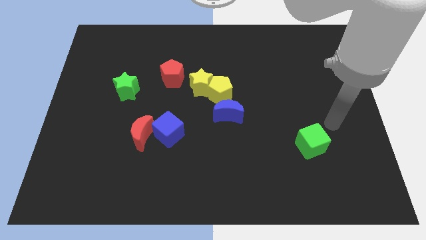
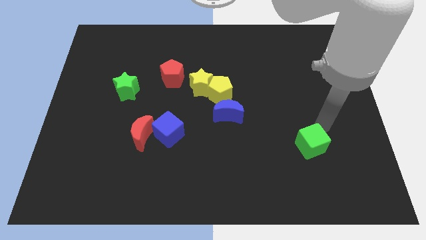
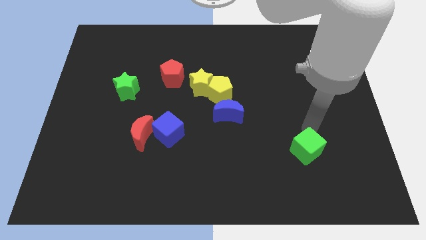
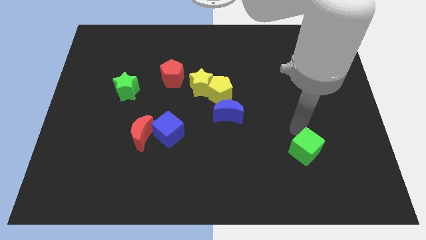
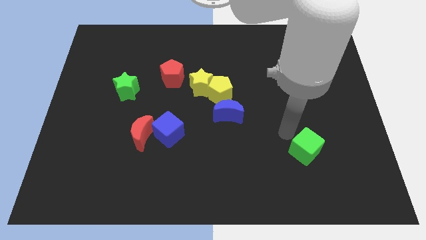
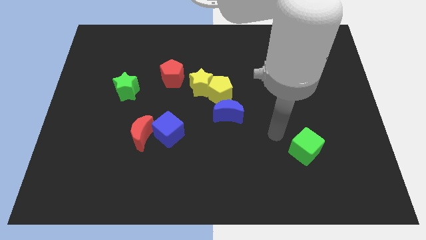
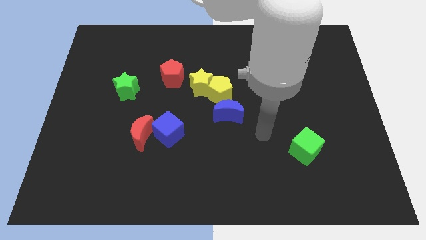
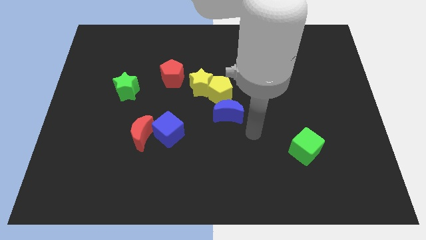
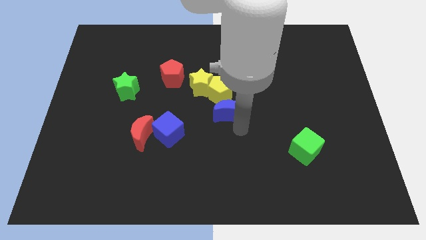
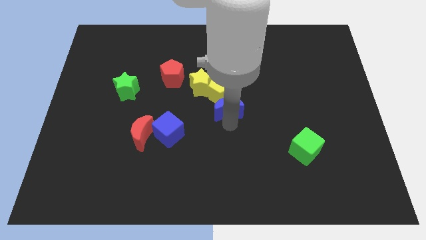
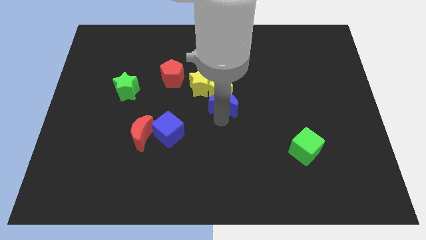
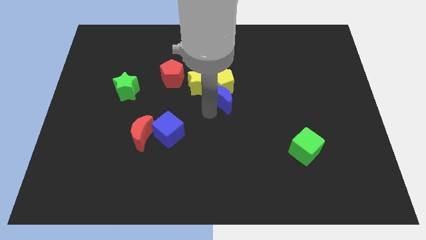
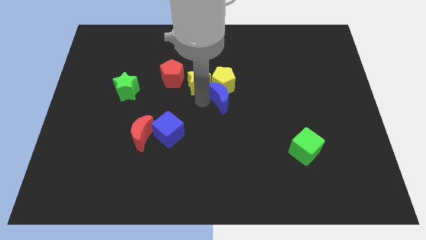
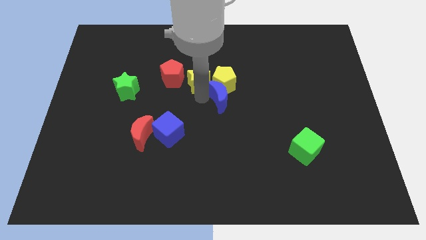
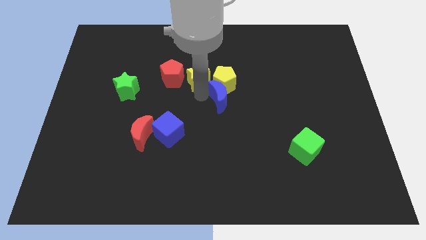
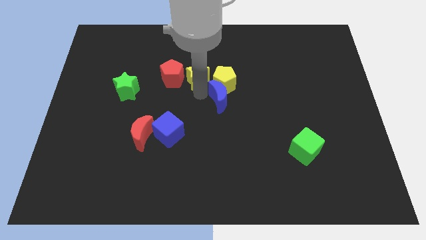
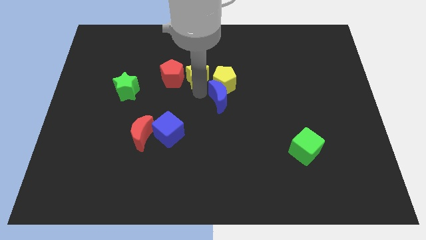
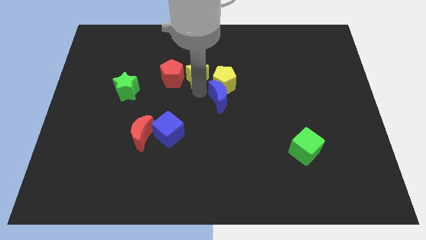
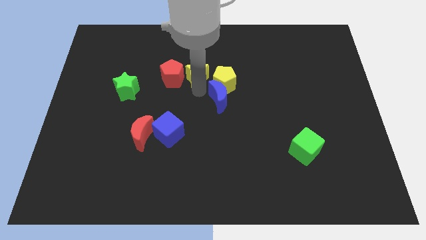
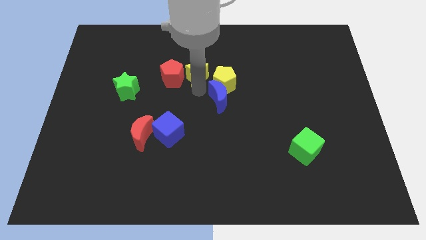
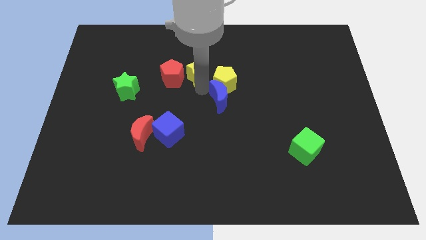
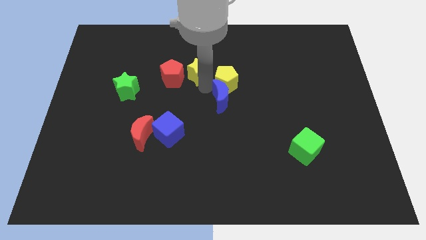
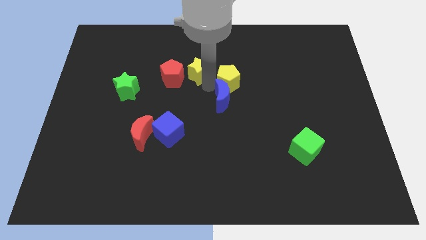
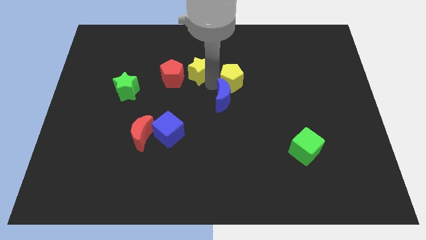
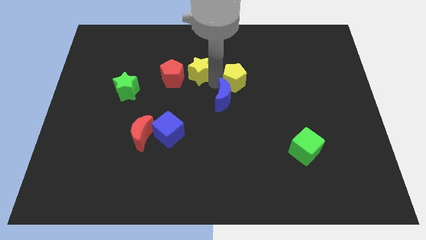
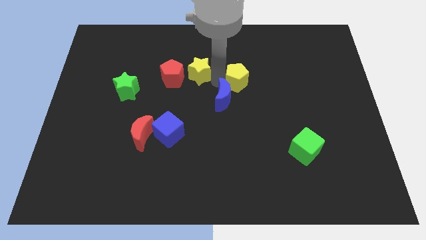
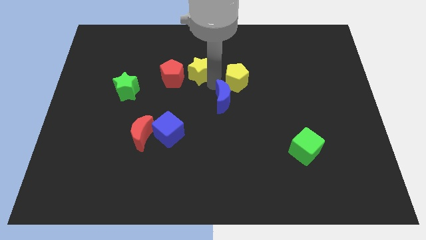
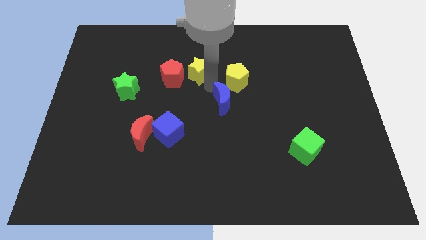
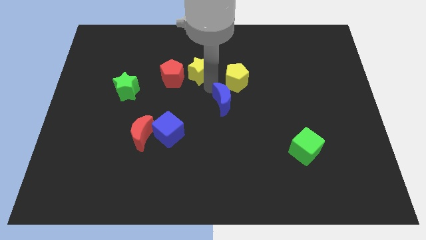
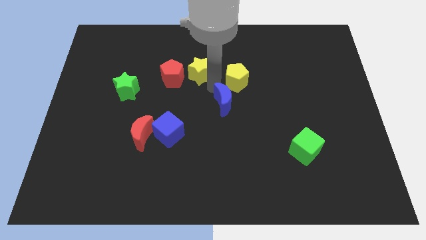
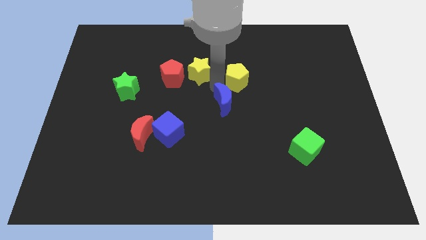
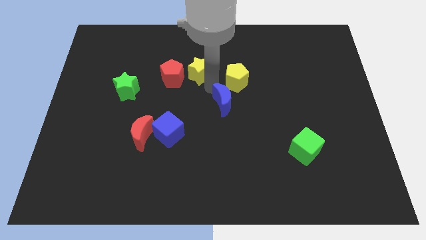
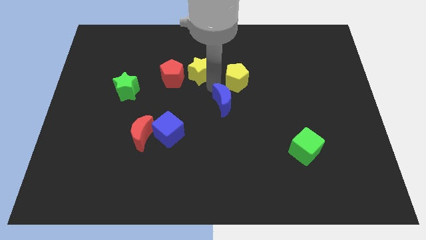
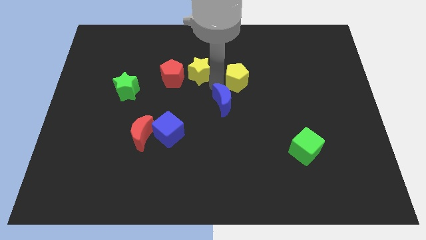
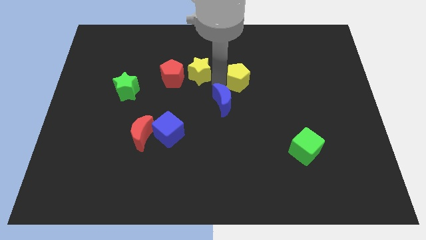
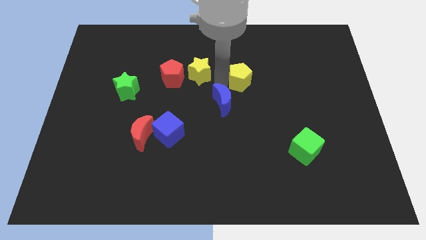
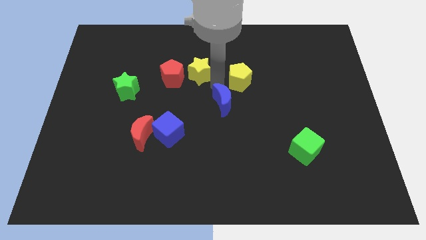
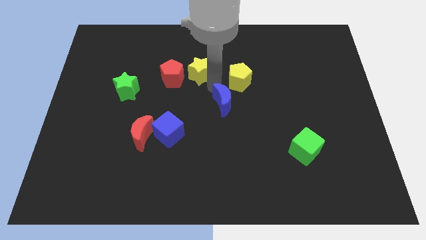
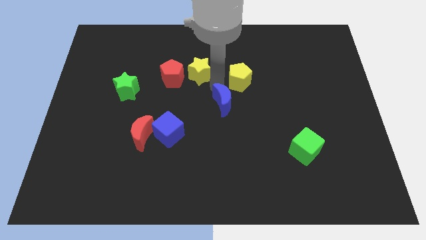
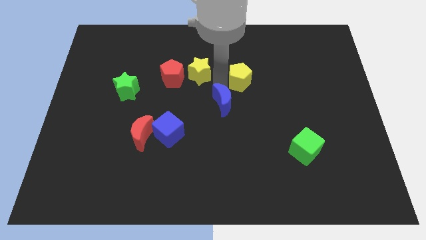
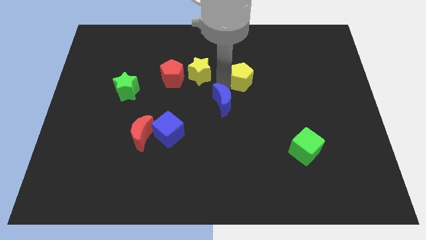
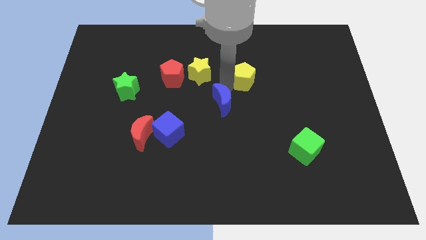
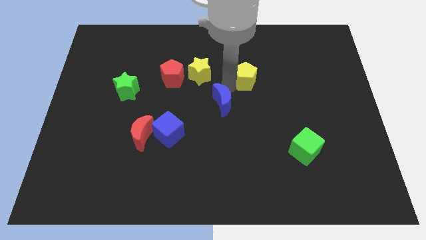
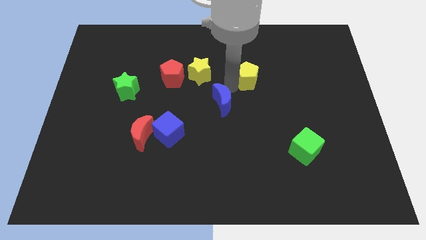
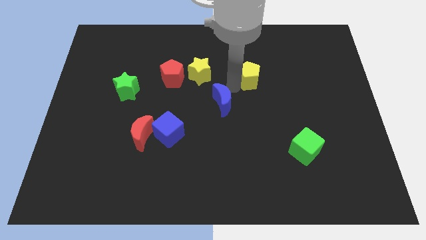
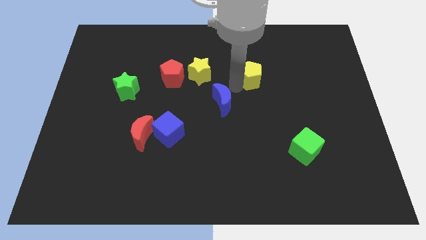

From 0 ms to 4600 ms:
separate the yellow pentagon from the yellow star and blue moon

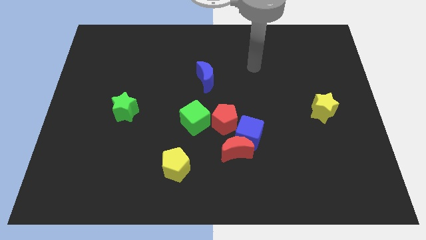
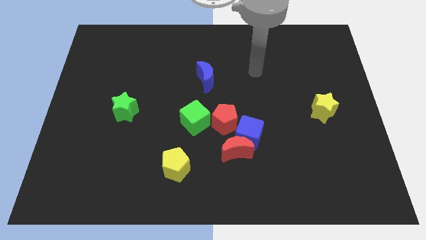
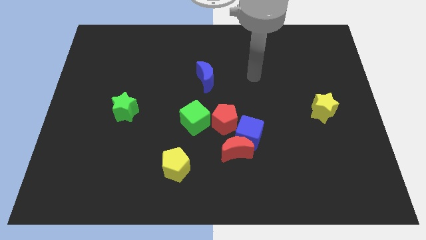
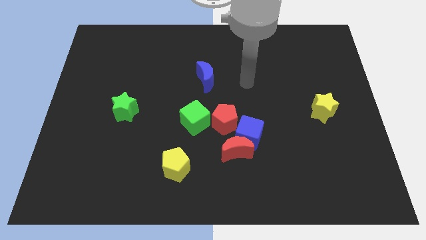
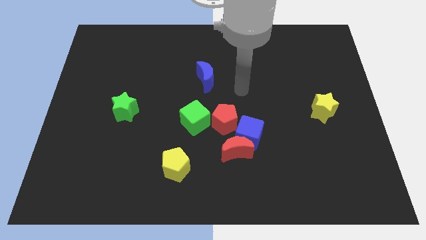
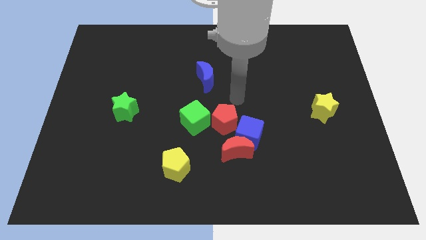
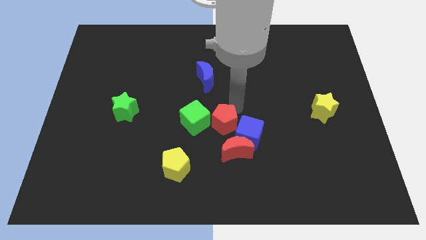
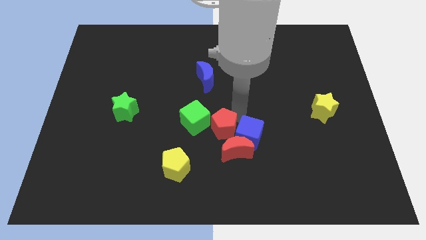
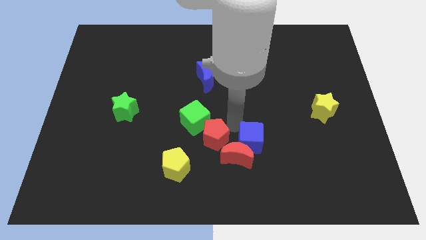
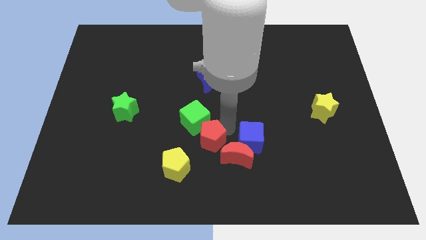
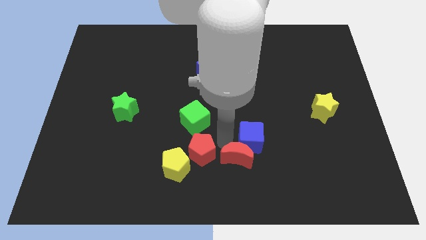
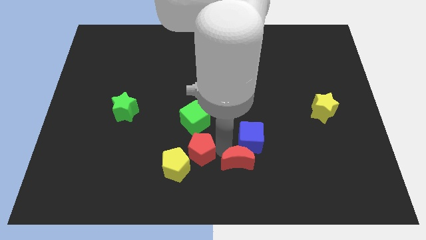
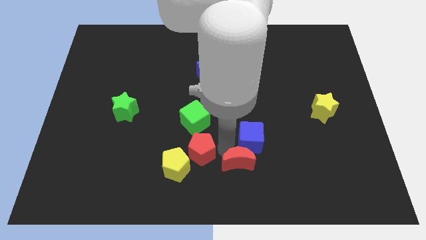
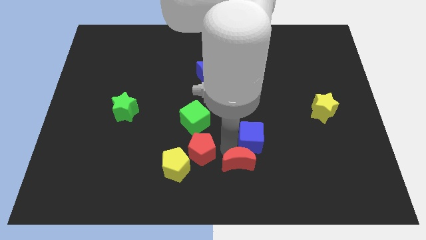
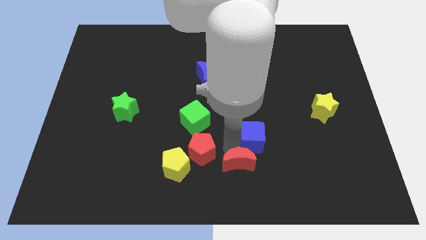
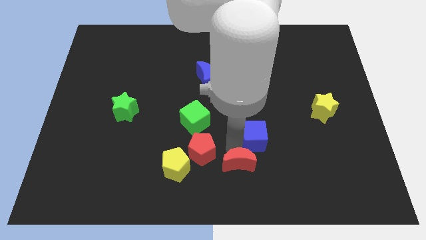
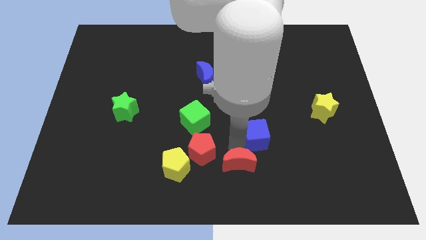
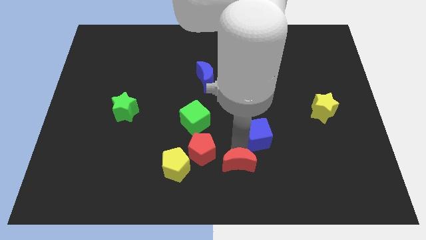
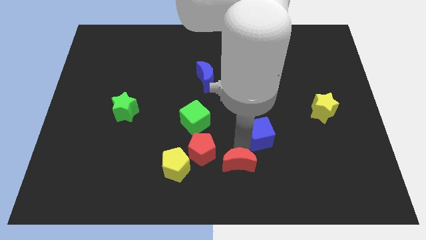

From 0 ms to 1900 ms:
separate the blue cube from the red moon and red pentagon

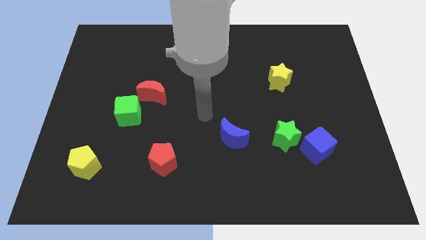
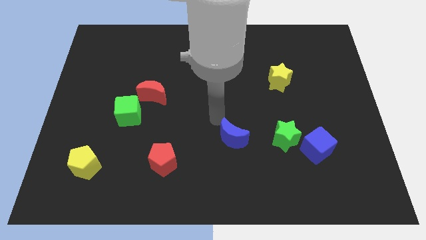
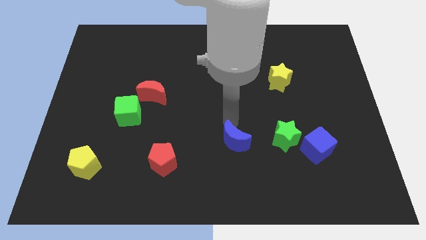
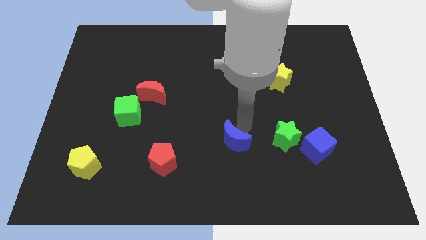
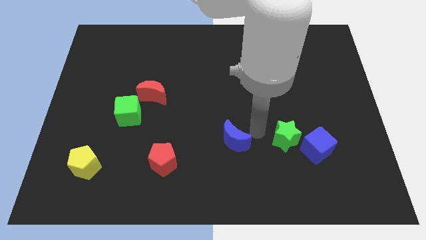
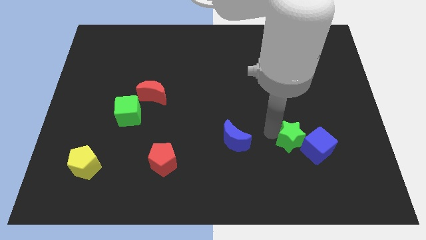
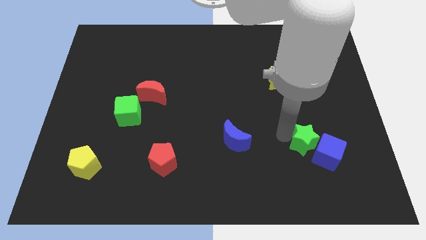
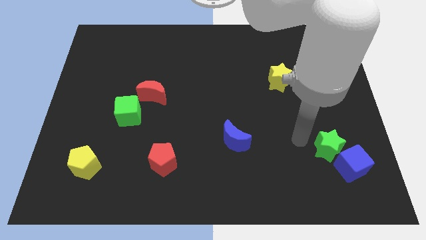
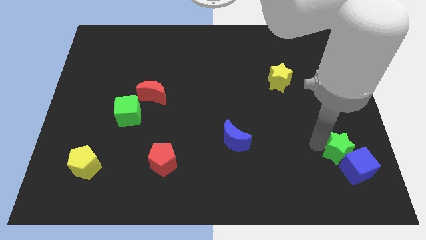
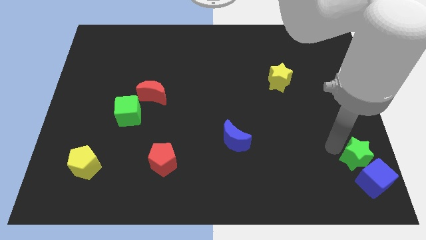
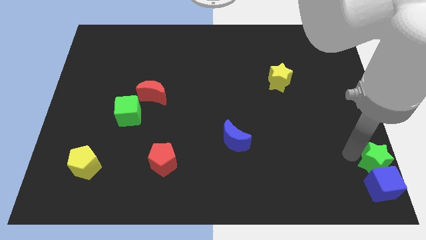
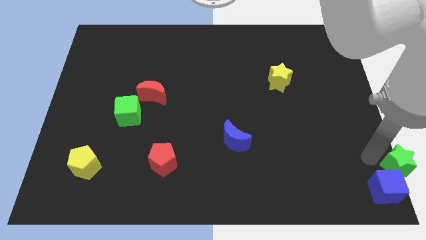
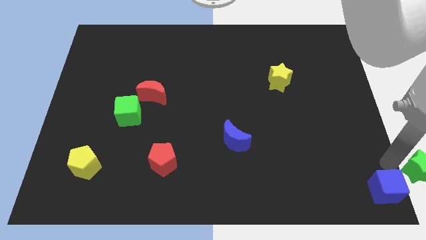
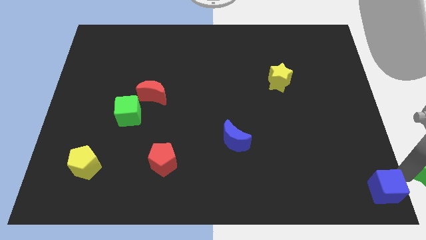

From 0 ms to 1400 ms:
pull the blue cube apart from the green star

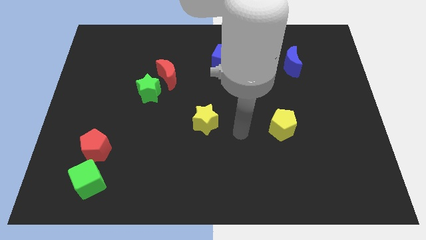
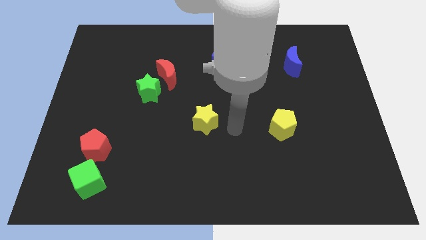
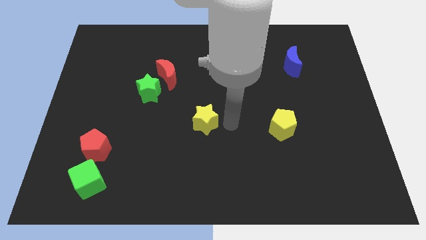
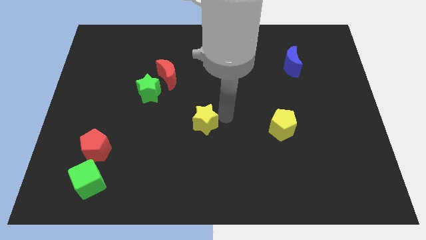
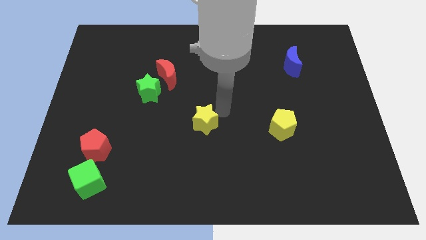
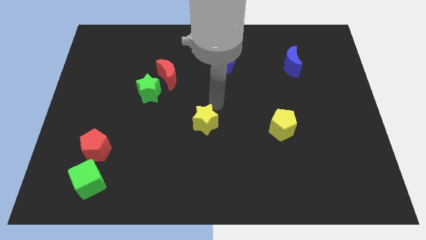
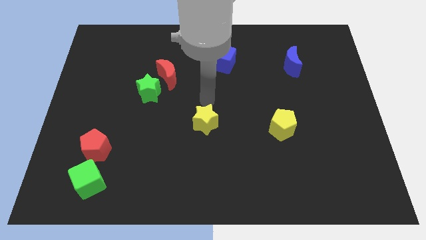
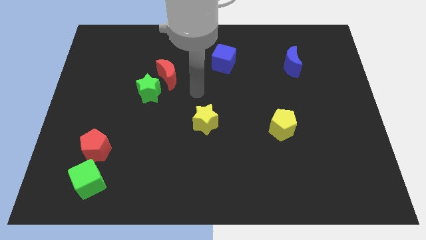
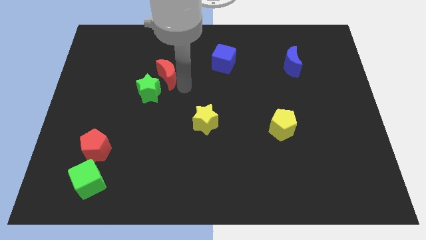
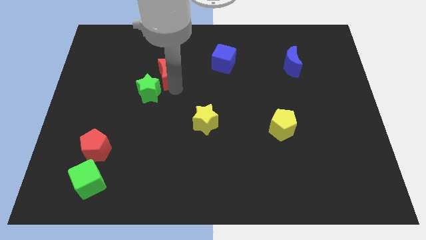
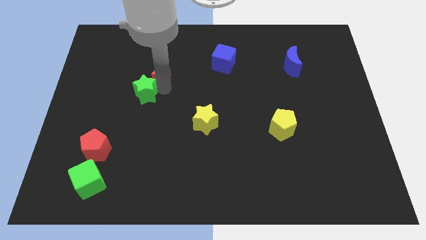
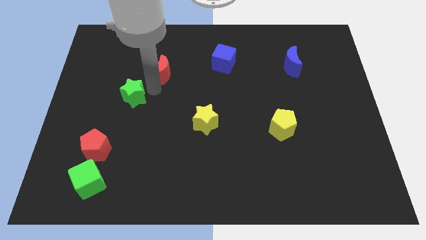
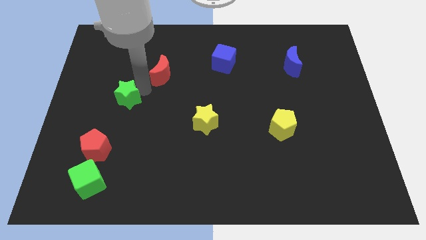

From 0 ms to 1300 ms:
move the red moon away from the green star

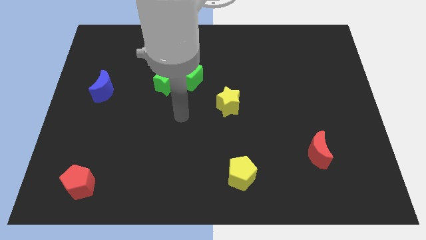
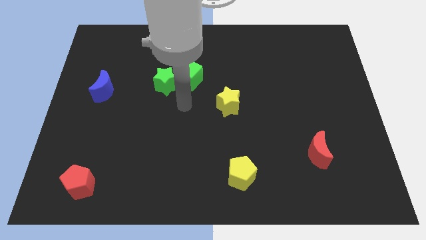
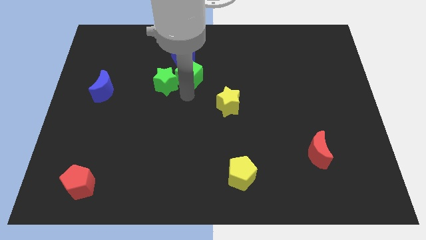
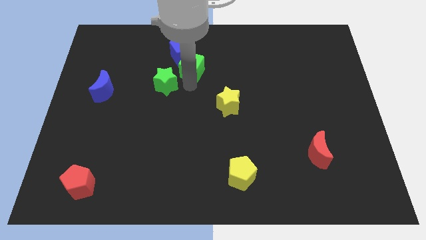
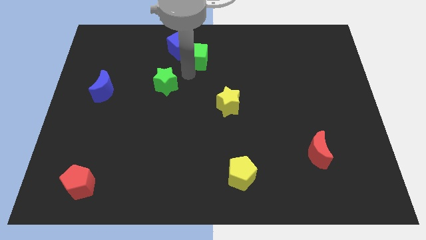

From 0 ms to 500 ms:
pull the green star apart from the green cube
